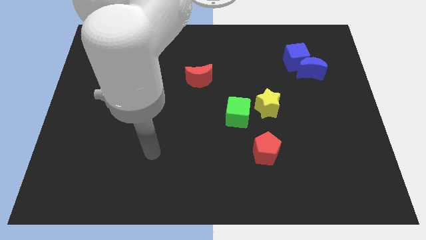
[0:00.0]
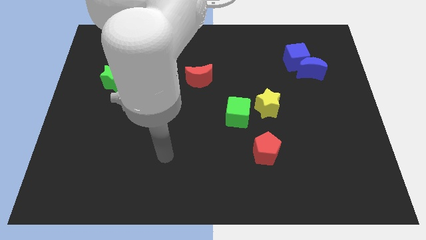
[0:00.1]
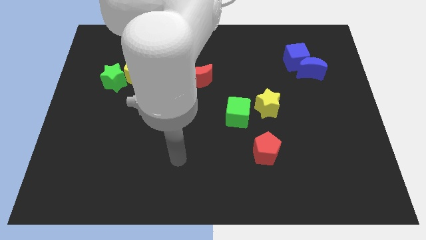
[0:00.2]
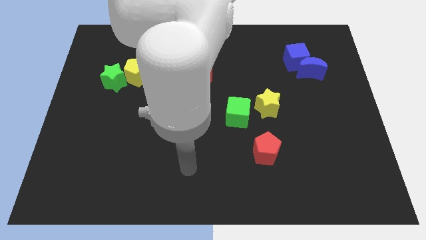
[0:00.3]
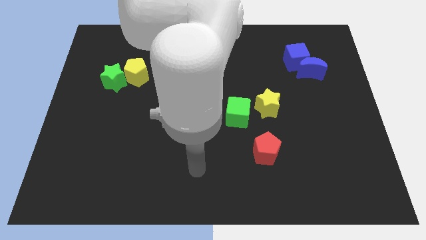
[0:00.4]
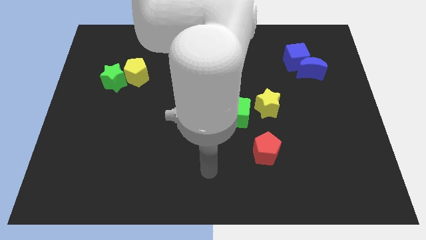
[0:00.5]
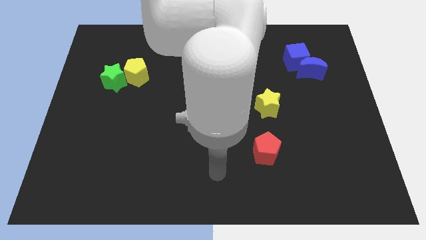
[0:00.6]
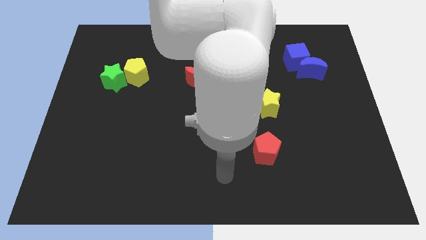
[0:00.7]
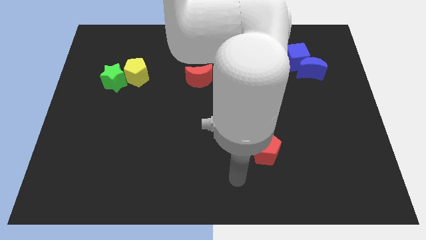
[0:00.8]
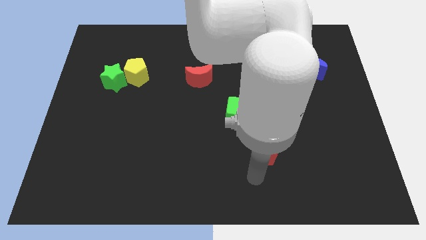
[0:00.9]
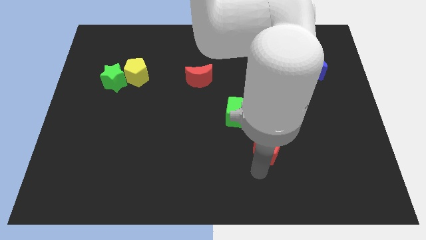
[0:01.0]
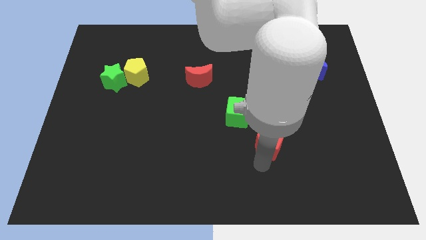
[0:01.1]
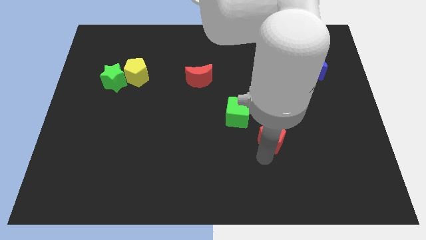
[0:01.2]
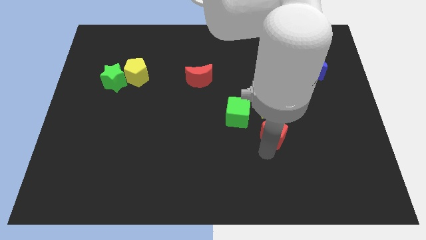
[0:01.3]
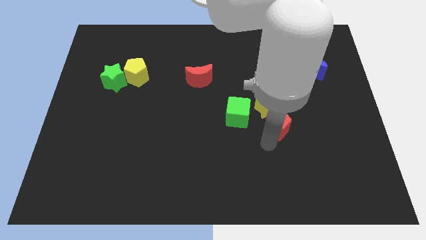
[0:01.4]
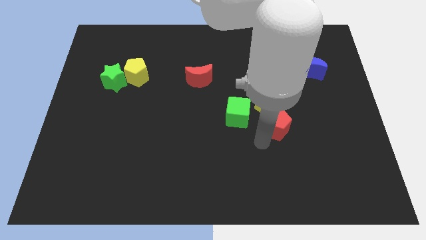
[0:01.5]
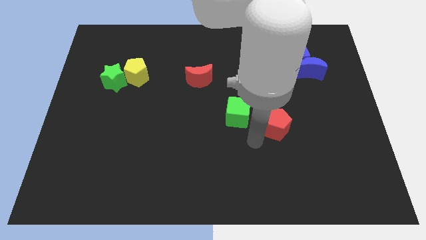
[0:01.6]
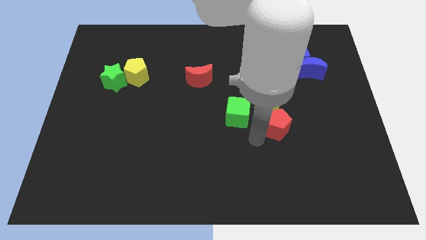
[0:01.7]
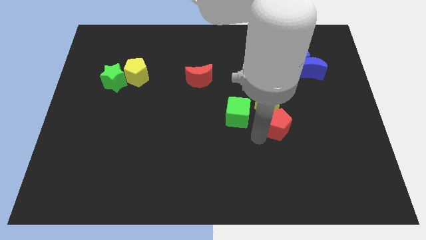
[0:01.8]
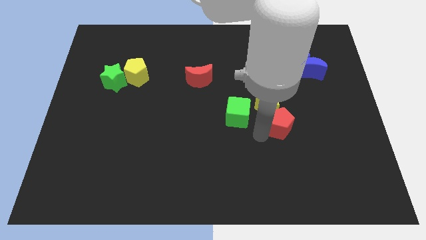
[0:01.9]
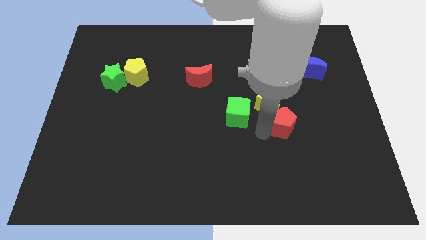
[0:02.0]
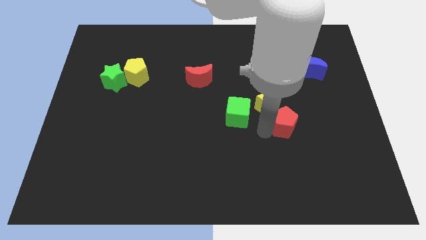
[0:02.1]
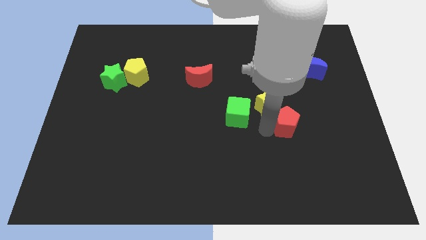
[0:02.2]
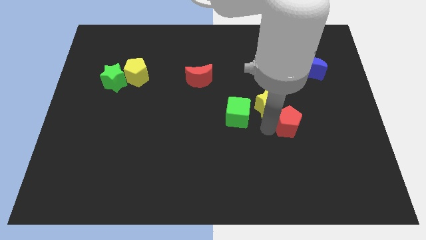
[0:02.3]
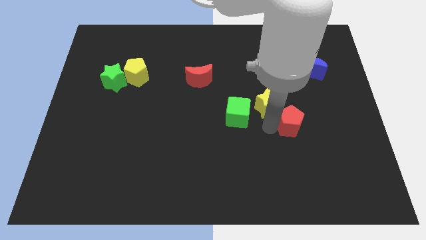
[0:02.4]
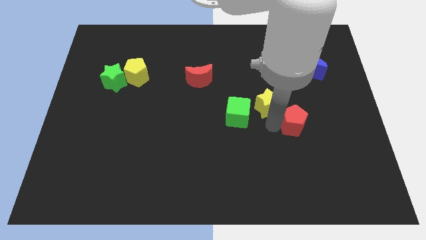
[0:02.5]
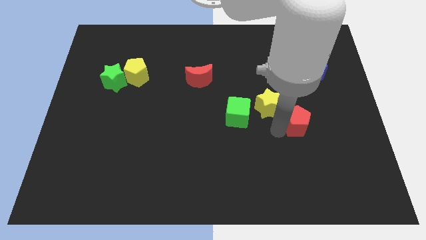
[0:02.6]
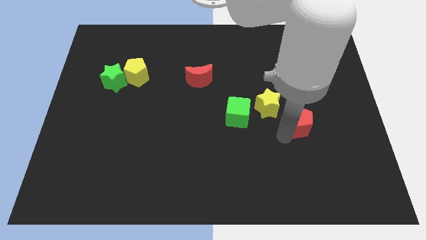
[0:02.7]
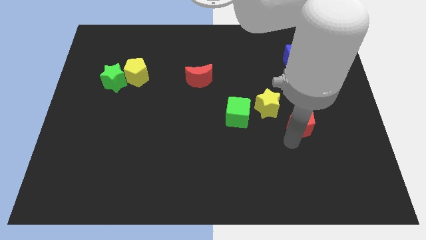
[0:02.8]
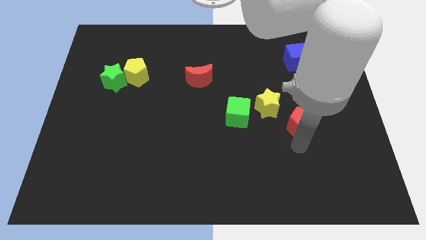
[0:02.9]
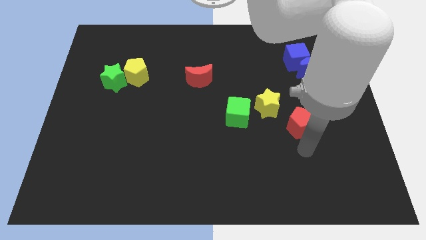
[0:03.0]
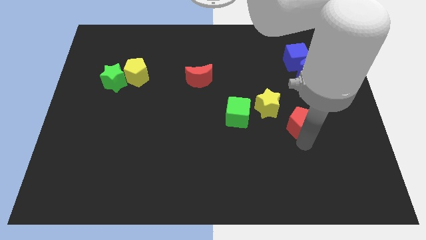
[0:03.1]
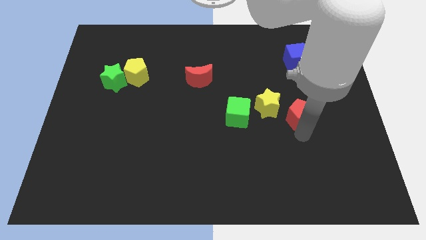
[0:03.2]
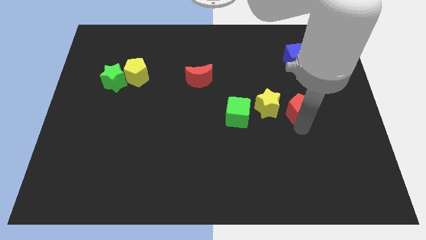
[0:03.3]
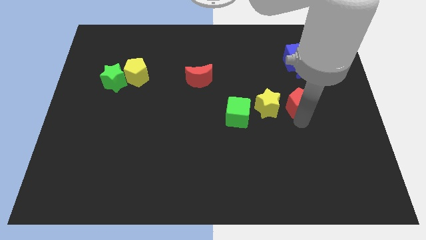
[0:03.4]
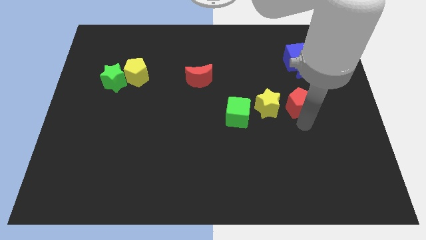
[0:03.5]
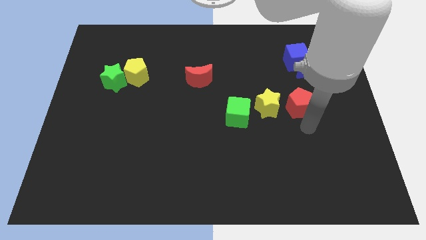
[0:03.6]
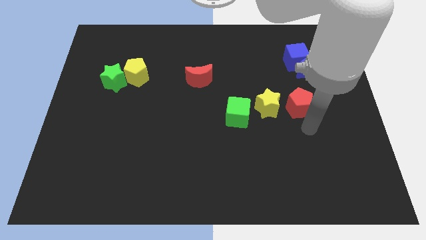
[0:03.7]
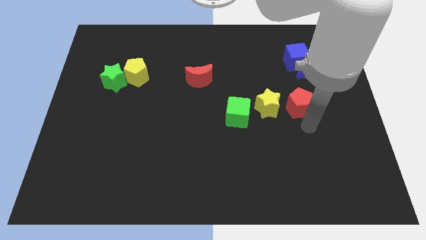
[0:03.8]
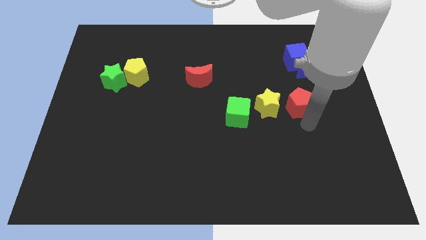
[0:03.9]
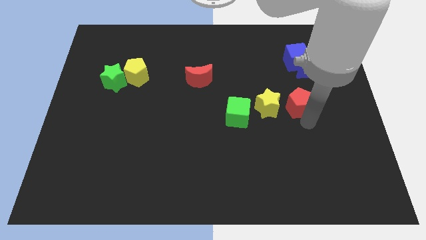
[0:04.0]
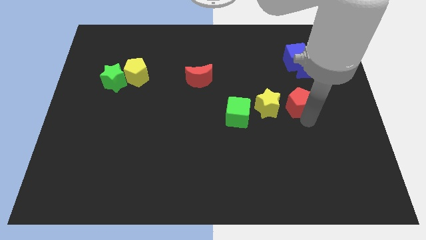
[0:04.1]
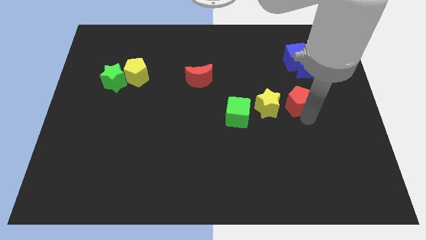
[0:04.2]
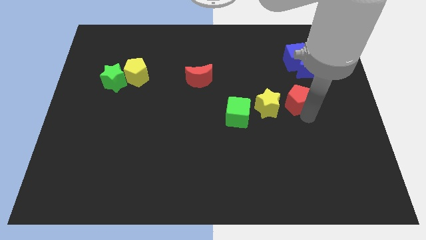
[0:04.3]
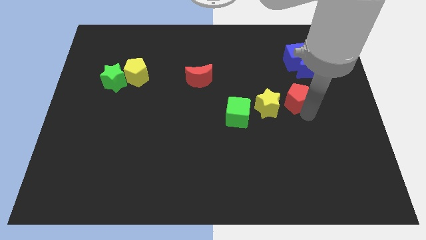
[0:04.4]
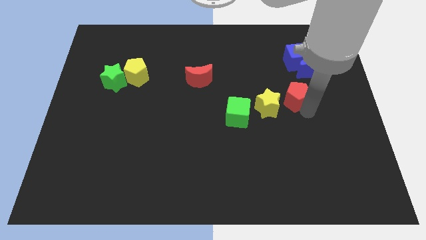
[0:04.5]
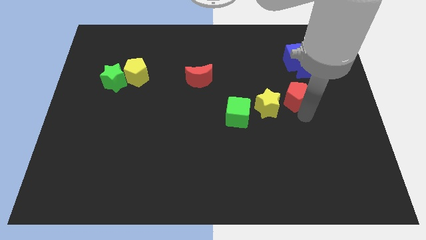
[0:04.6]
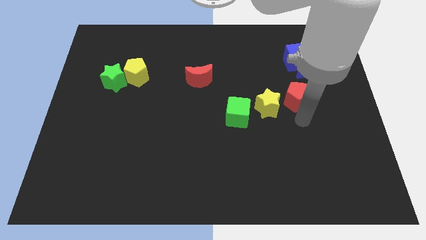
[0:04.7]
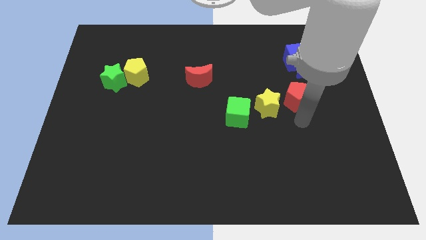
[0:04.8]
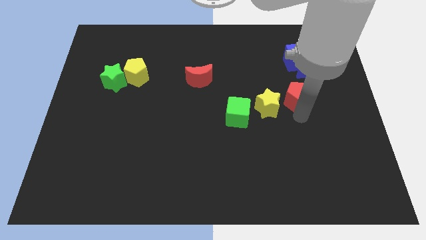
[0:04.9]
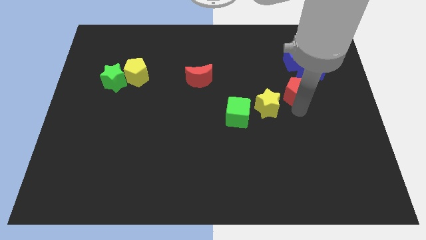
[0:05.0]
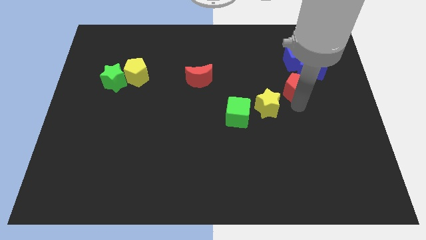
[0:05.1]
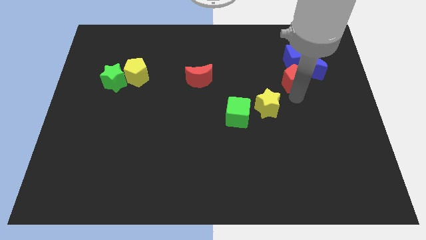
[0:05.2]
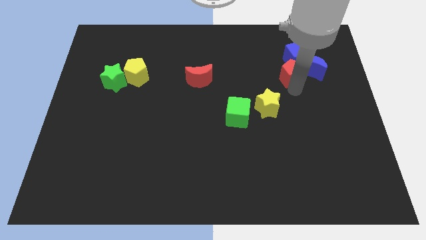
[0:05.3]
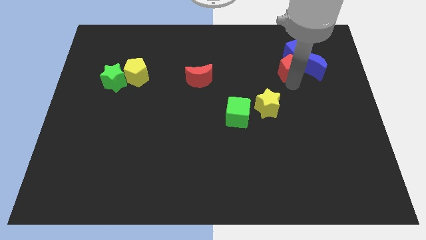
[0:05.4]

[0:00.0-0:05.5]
put the red pentagon towards the blue cube

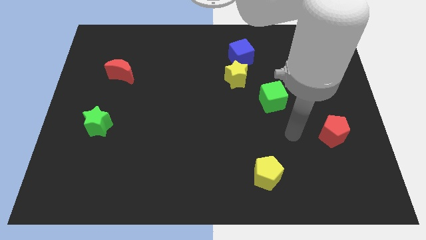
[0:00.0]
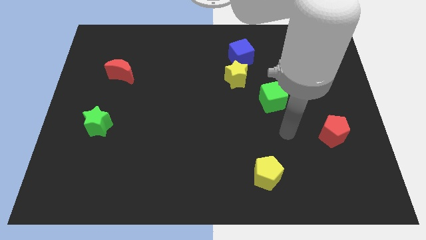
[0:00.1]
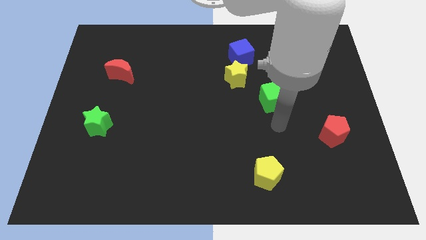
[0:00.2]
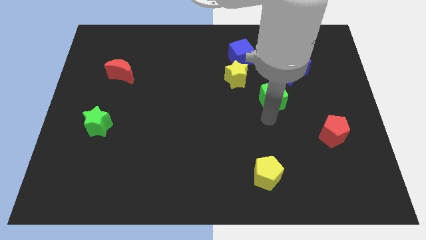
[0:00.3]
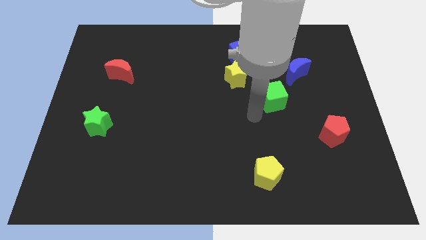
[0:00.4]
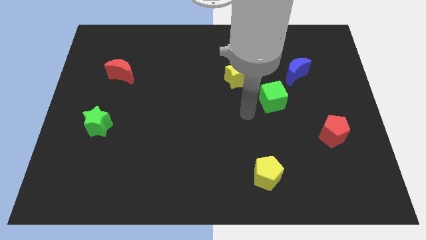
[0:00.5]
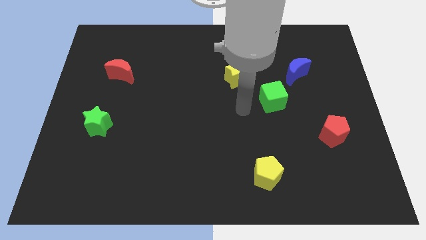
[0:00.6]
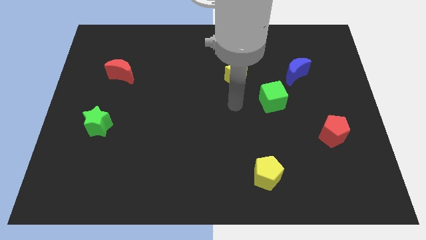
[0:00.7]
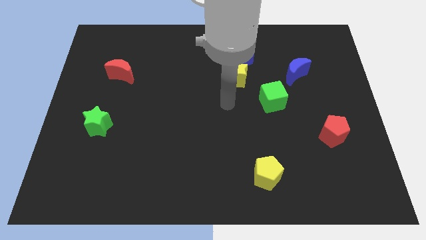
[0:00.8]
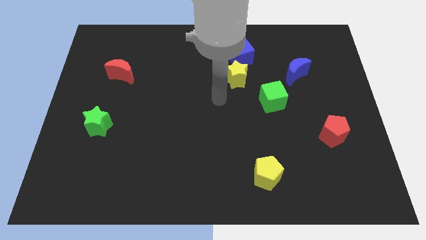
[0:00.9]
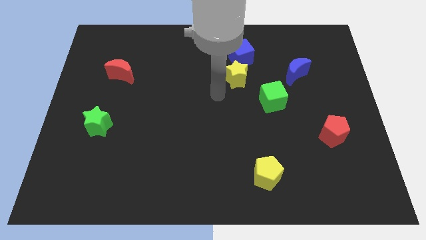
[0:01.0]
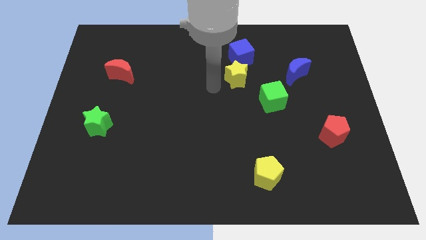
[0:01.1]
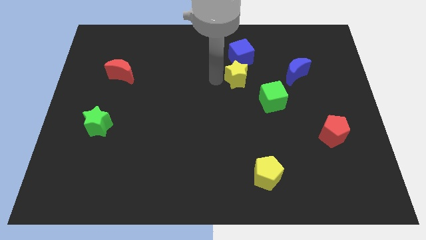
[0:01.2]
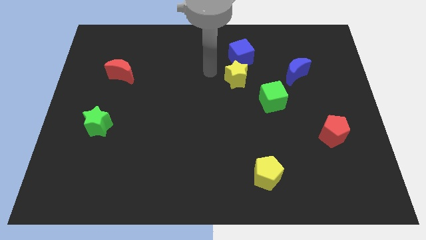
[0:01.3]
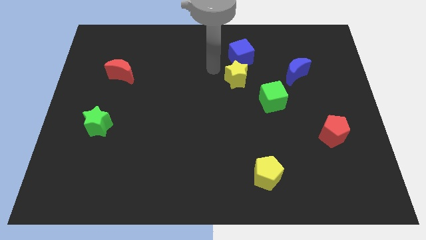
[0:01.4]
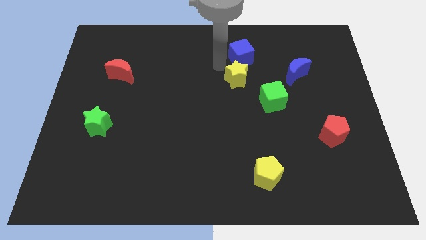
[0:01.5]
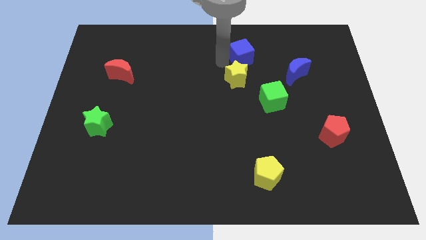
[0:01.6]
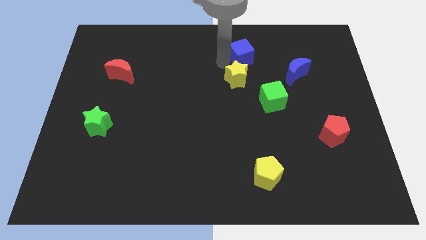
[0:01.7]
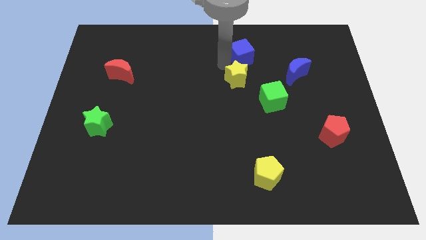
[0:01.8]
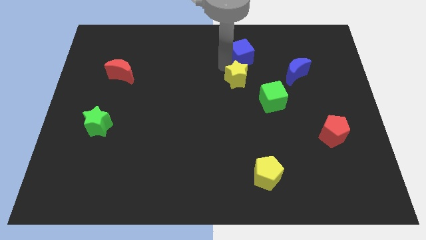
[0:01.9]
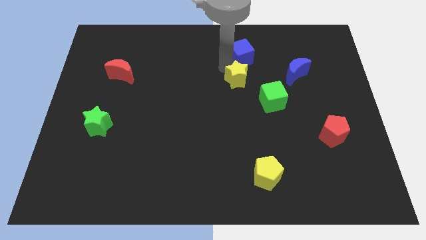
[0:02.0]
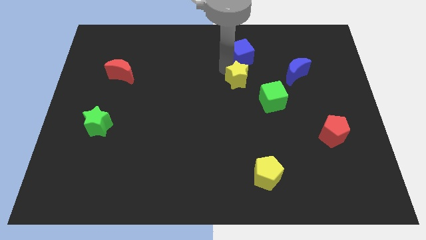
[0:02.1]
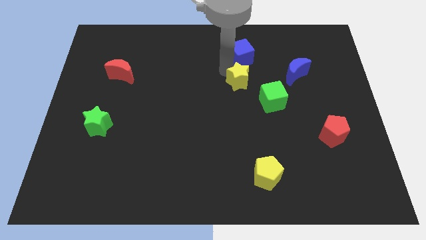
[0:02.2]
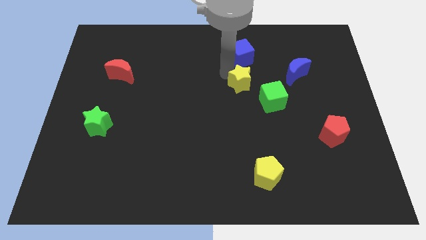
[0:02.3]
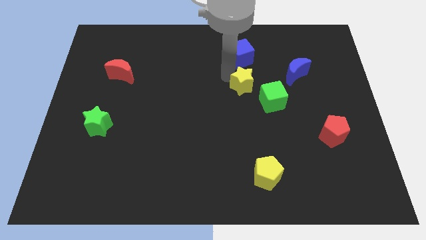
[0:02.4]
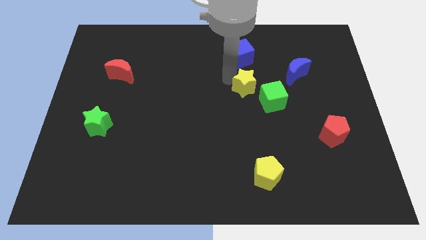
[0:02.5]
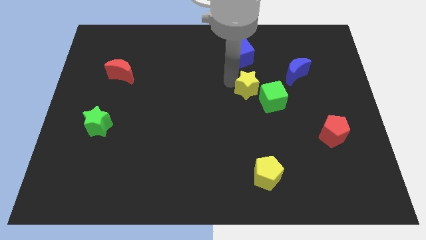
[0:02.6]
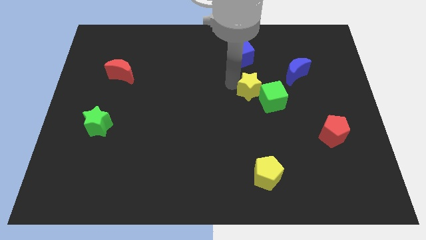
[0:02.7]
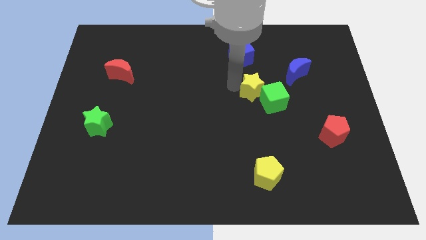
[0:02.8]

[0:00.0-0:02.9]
slide the yellow star towards the green cube
